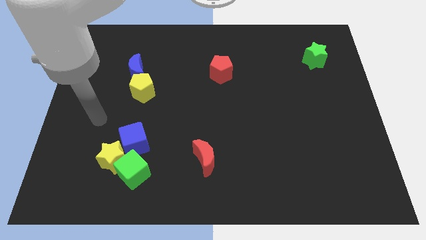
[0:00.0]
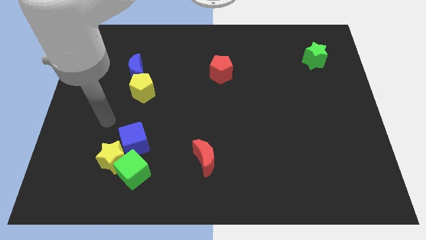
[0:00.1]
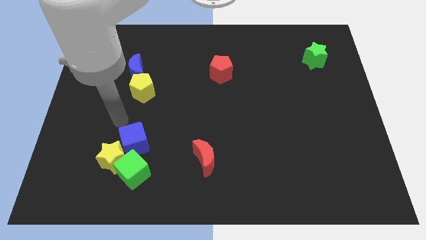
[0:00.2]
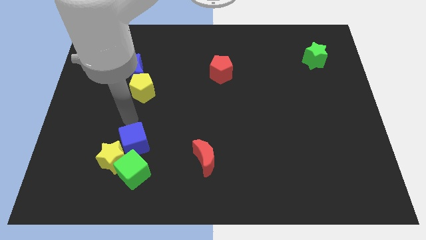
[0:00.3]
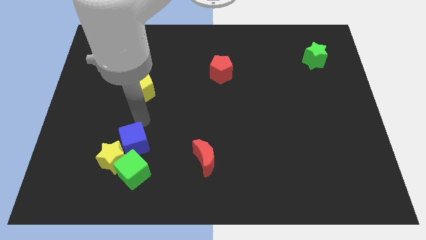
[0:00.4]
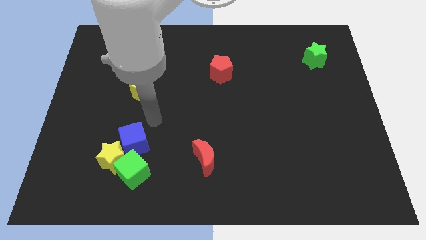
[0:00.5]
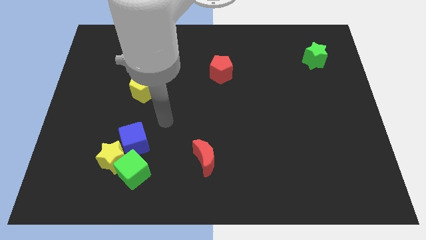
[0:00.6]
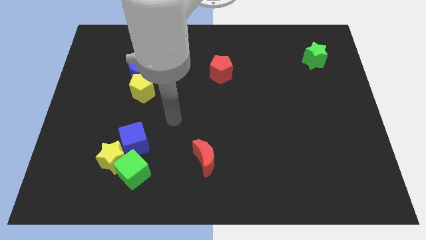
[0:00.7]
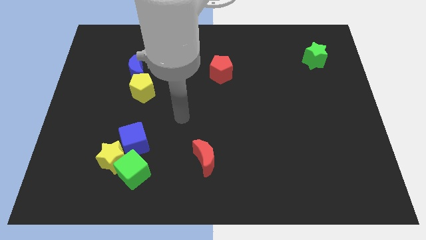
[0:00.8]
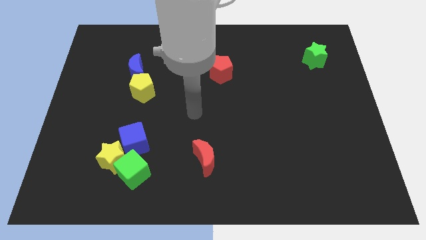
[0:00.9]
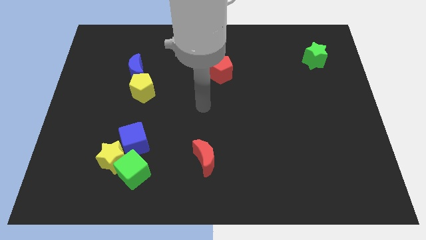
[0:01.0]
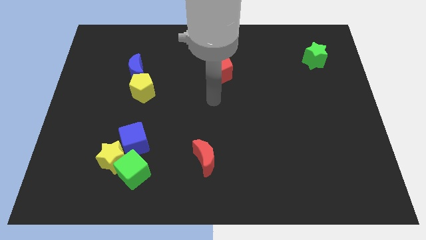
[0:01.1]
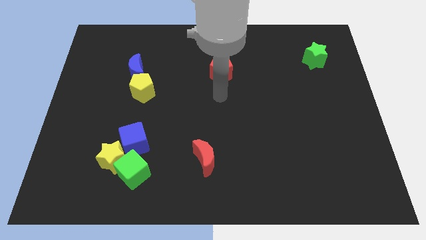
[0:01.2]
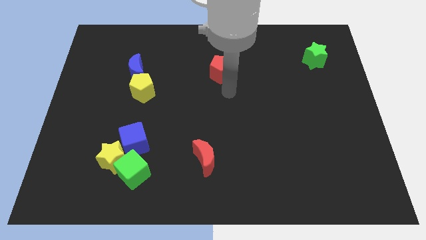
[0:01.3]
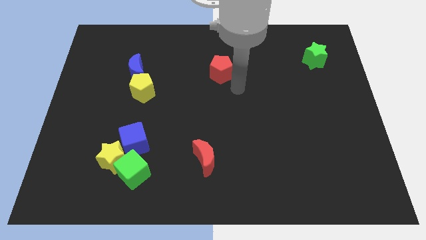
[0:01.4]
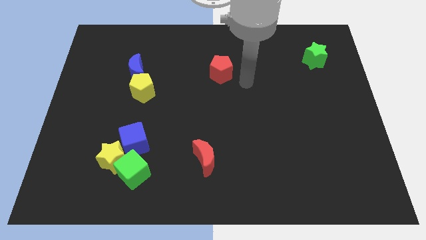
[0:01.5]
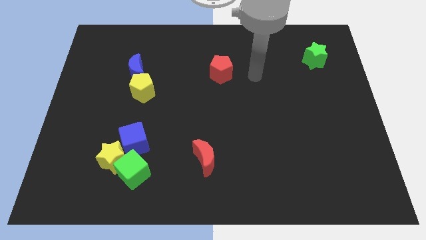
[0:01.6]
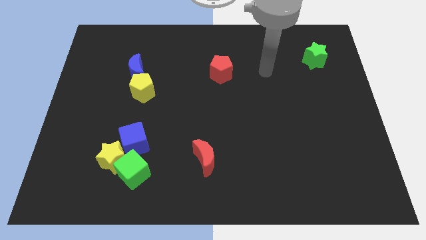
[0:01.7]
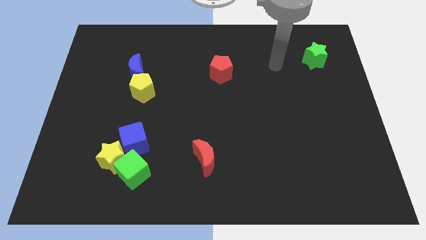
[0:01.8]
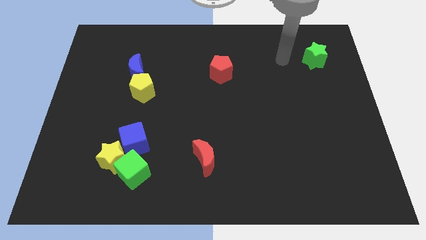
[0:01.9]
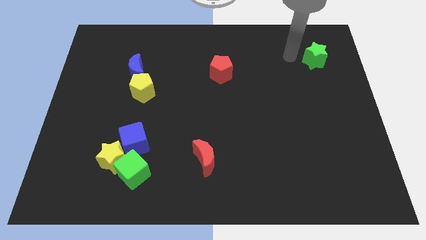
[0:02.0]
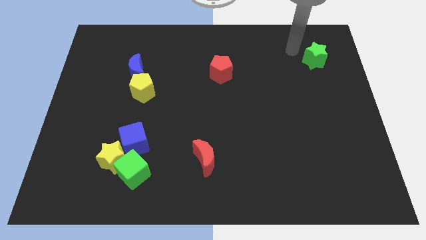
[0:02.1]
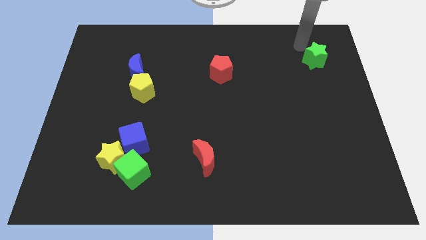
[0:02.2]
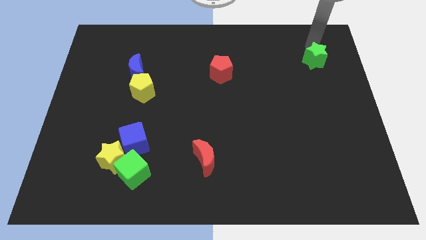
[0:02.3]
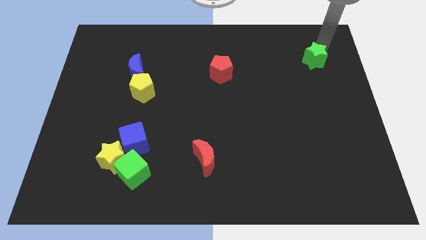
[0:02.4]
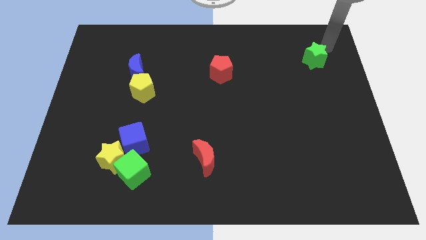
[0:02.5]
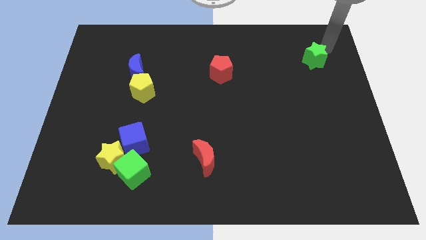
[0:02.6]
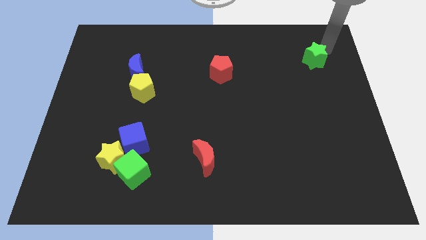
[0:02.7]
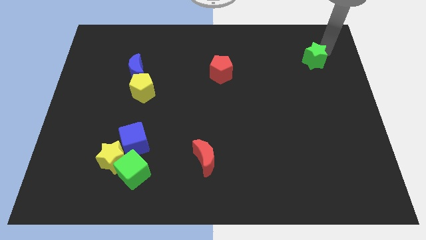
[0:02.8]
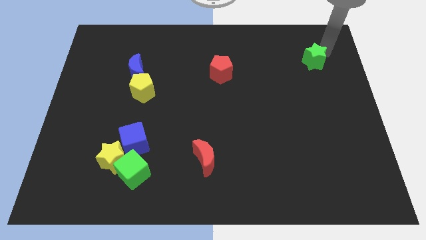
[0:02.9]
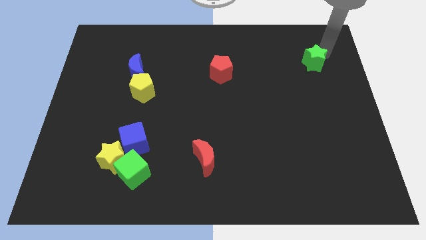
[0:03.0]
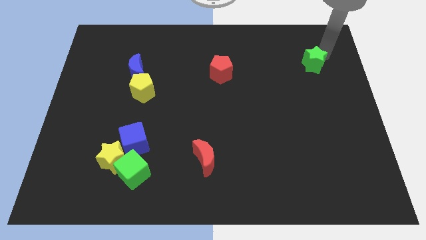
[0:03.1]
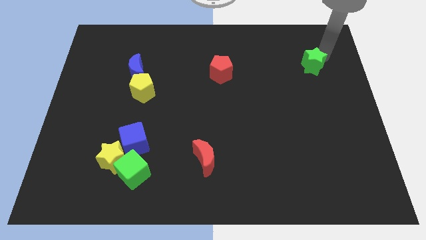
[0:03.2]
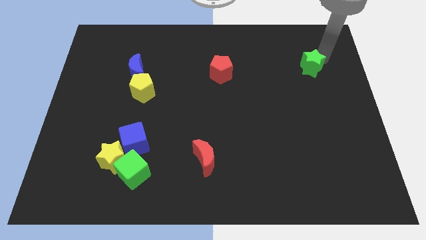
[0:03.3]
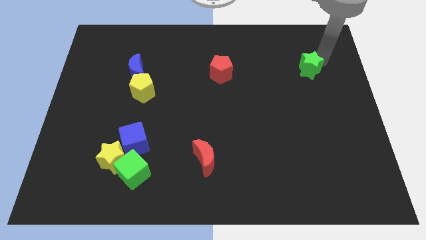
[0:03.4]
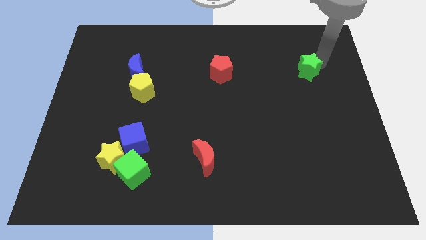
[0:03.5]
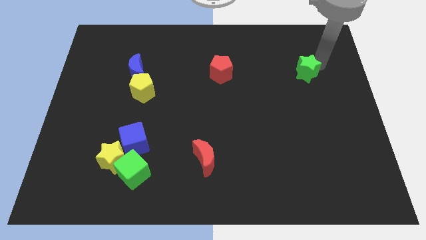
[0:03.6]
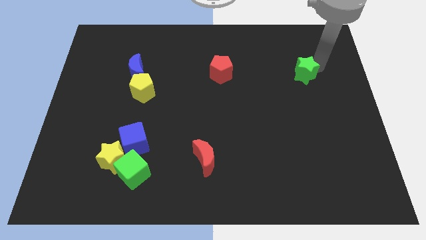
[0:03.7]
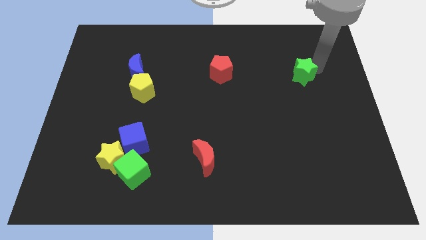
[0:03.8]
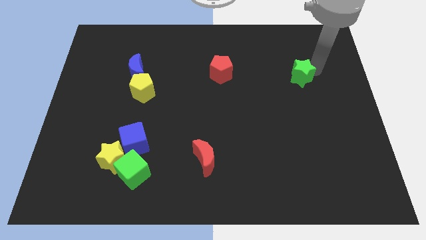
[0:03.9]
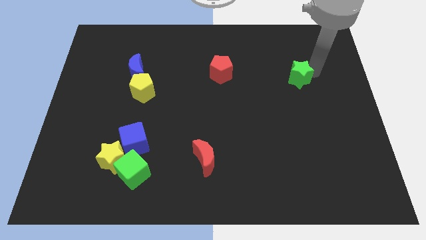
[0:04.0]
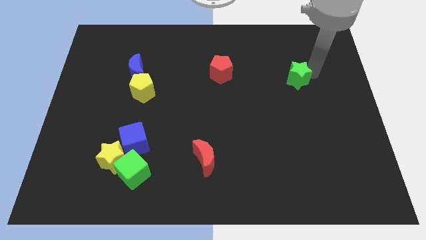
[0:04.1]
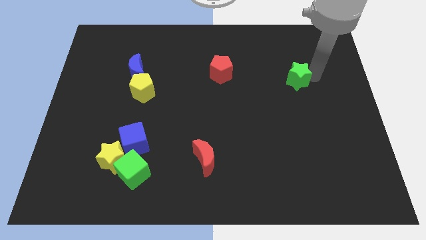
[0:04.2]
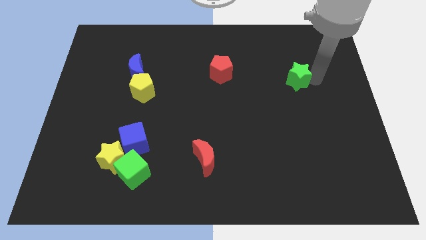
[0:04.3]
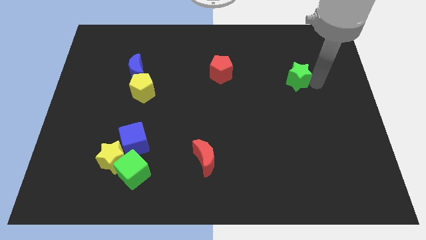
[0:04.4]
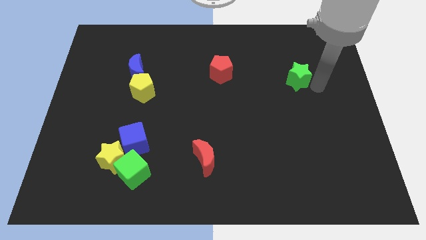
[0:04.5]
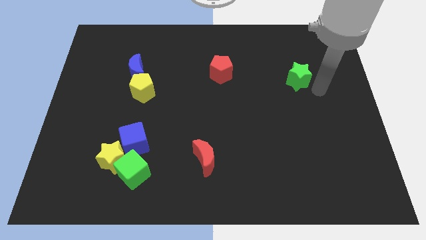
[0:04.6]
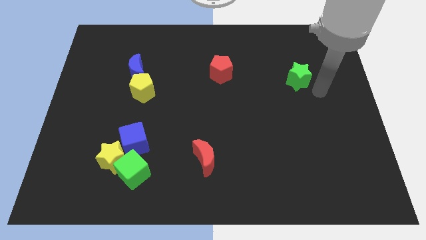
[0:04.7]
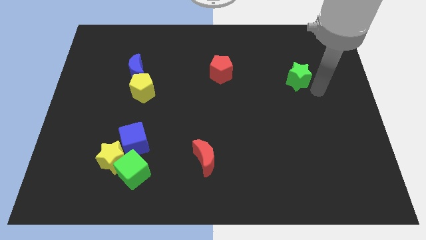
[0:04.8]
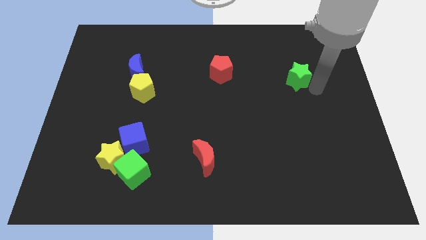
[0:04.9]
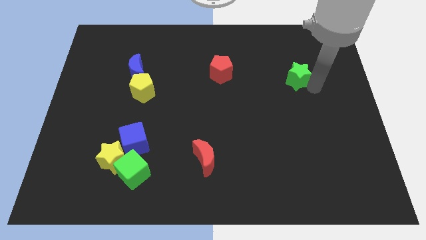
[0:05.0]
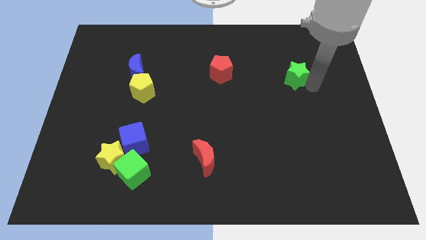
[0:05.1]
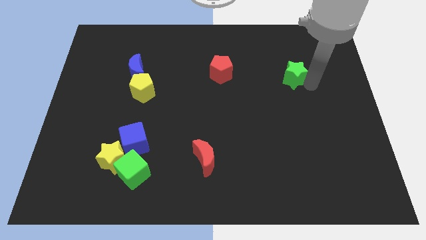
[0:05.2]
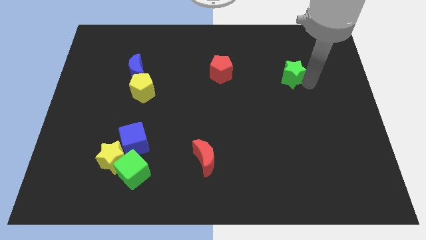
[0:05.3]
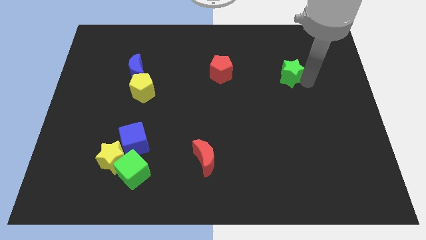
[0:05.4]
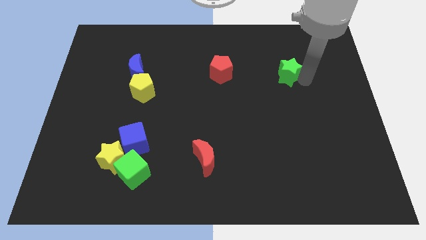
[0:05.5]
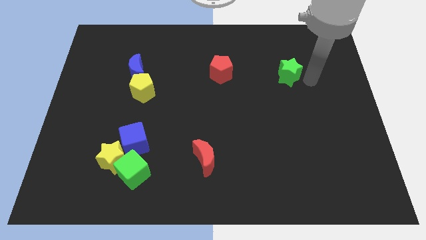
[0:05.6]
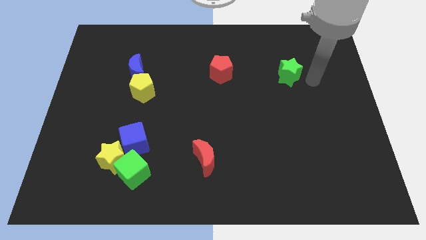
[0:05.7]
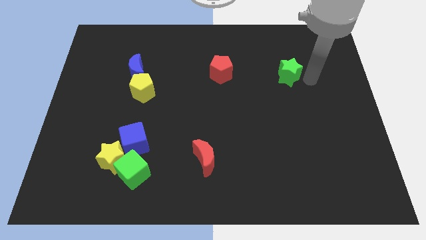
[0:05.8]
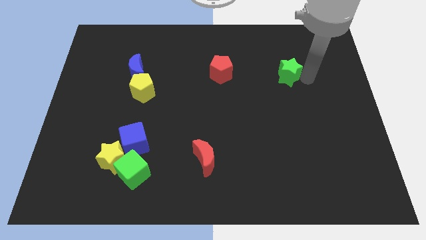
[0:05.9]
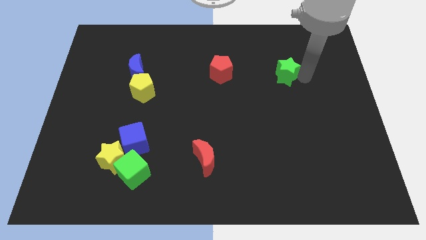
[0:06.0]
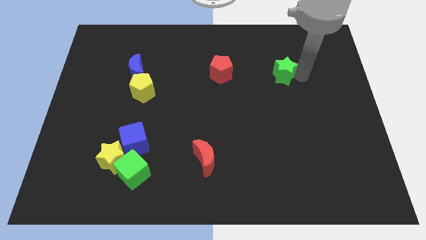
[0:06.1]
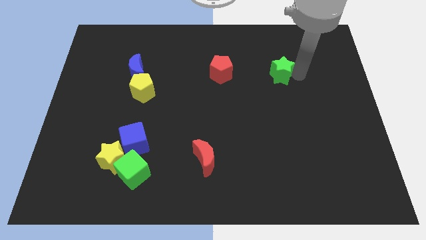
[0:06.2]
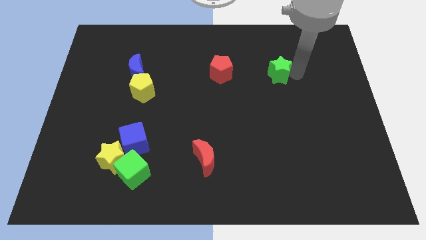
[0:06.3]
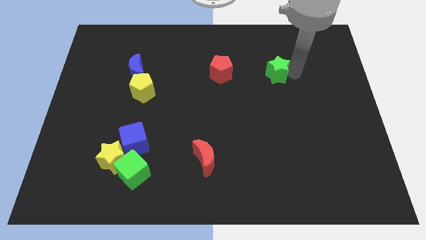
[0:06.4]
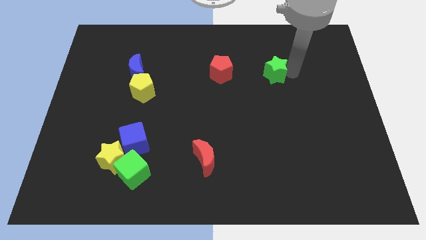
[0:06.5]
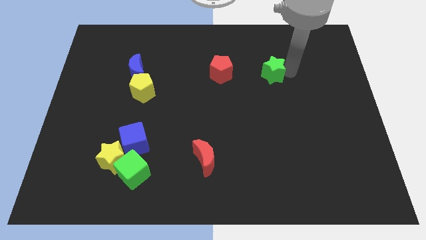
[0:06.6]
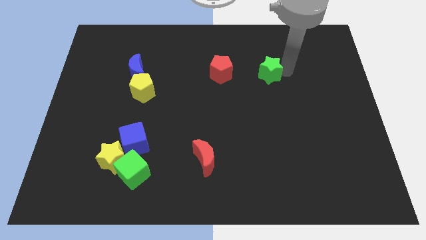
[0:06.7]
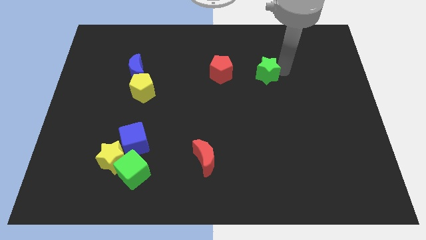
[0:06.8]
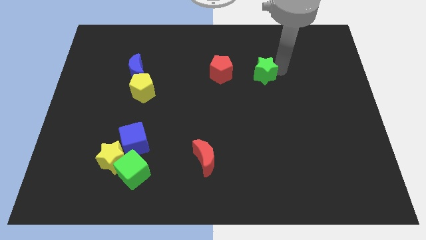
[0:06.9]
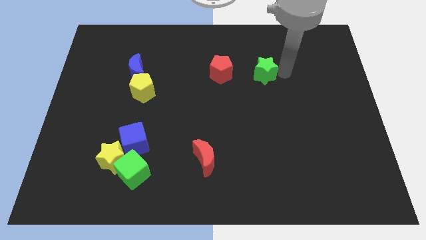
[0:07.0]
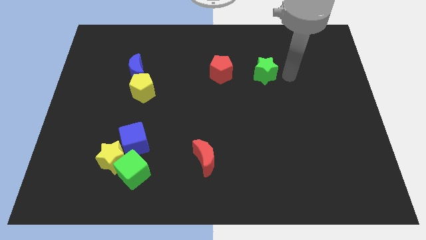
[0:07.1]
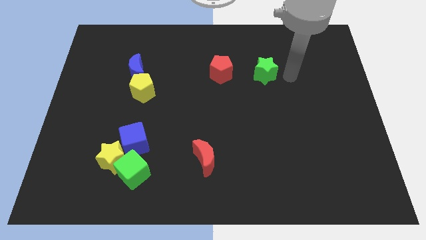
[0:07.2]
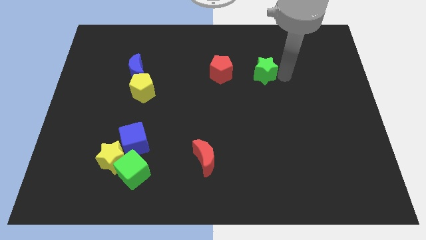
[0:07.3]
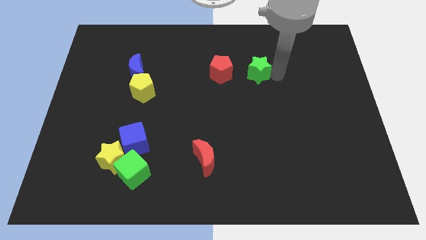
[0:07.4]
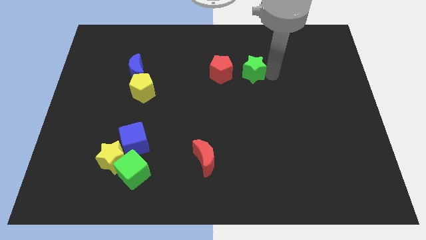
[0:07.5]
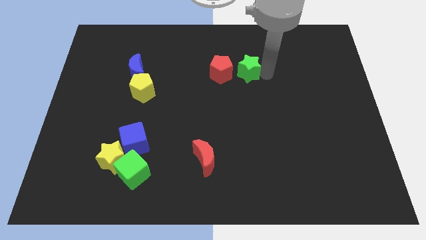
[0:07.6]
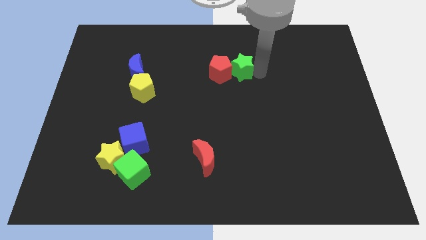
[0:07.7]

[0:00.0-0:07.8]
put the green star to the red pentagon
